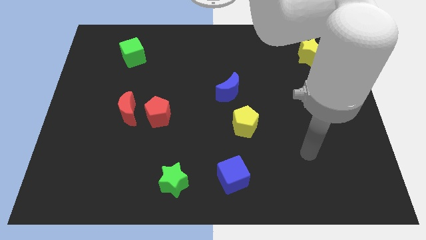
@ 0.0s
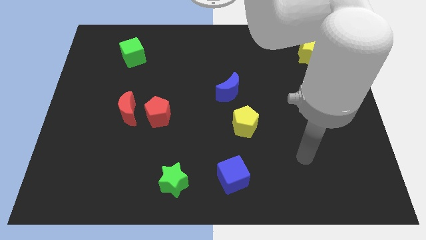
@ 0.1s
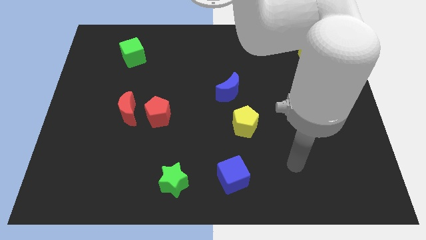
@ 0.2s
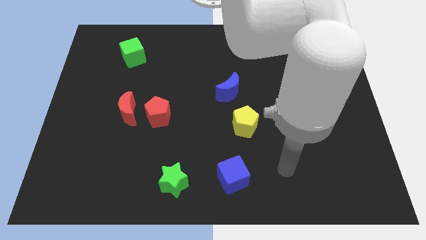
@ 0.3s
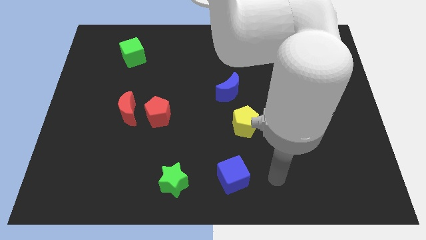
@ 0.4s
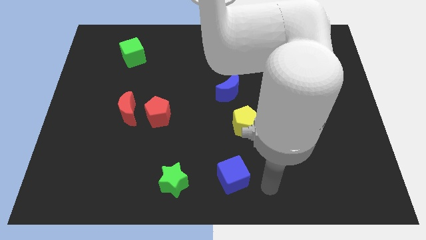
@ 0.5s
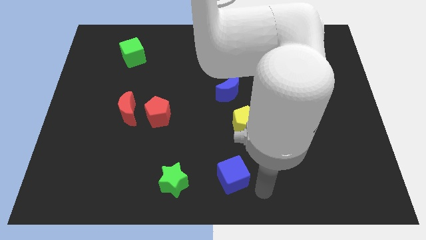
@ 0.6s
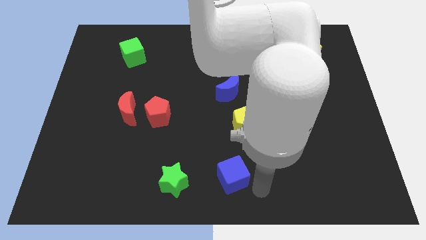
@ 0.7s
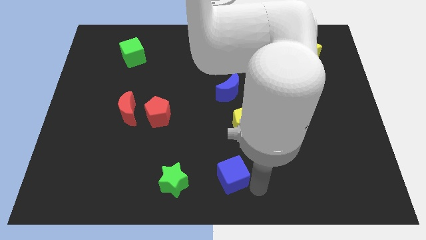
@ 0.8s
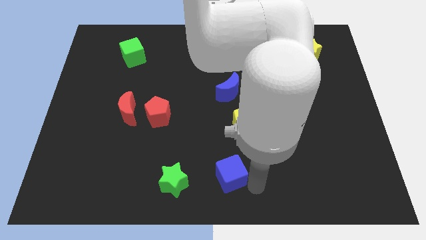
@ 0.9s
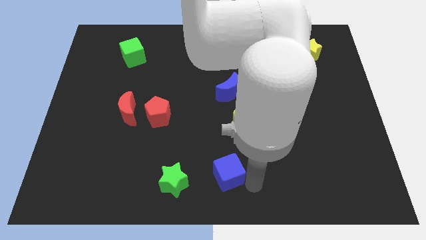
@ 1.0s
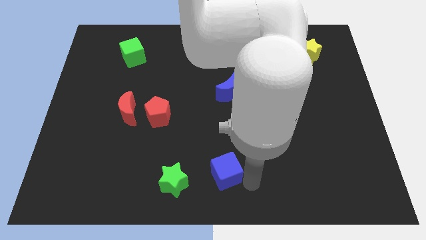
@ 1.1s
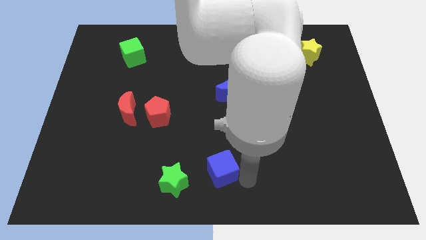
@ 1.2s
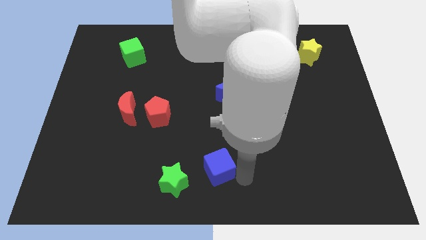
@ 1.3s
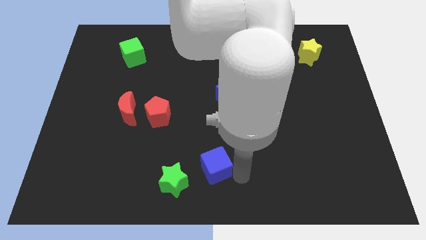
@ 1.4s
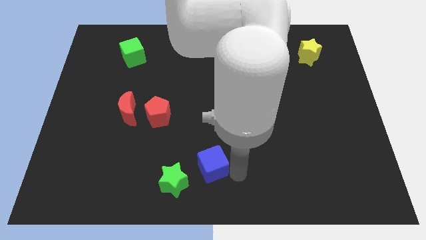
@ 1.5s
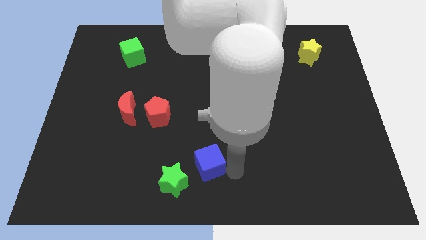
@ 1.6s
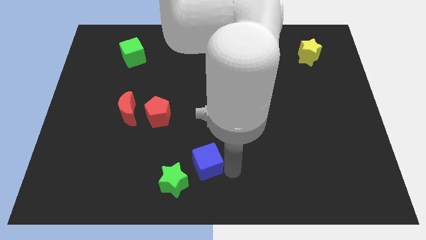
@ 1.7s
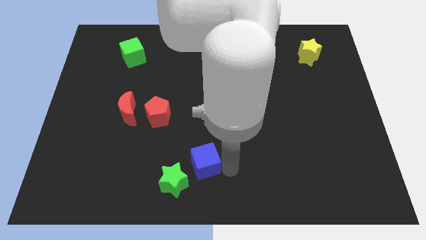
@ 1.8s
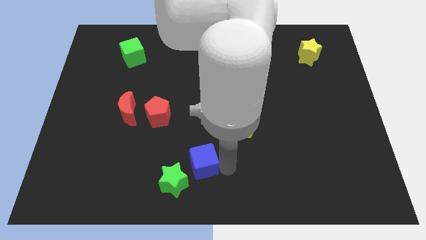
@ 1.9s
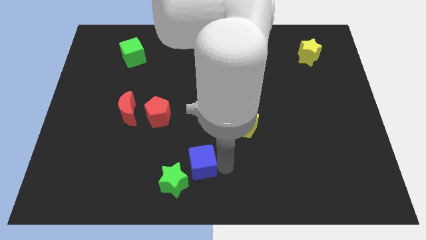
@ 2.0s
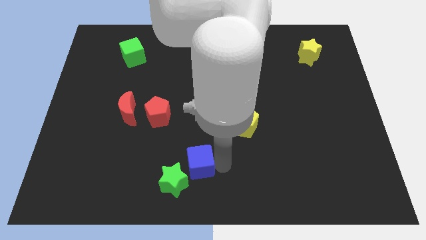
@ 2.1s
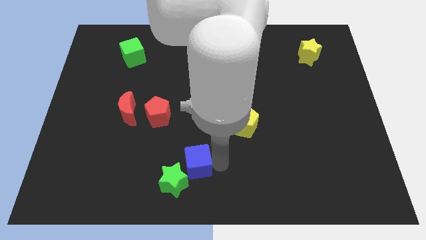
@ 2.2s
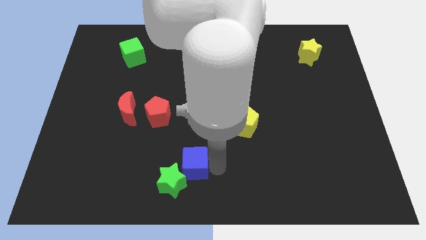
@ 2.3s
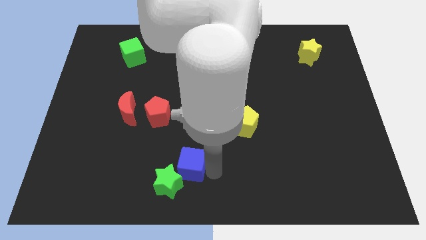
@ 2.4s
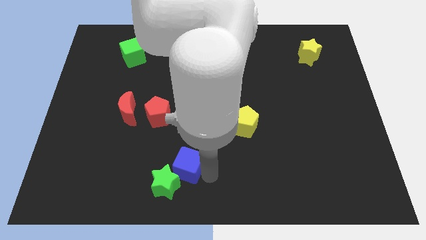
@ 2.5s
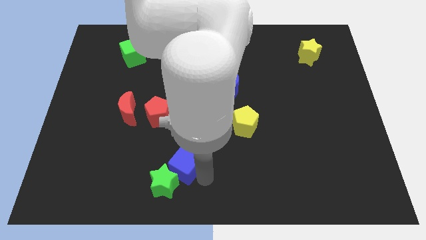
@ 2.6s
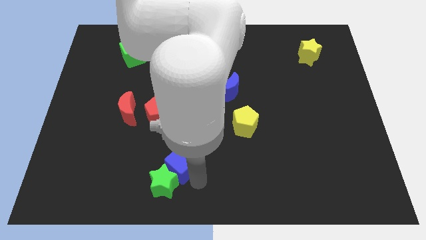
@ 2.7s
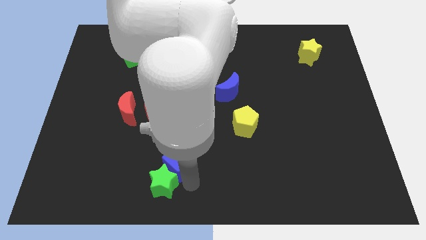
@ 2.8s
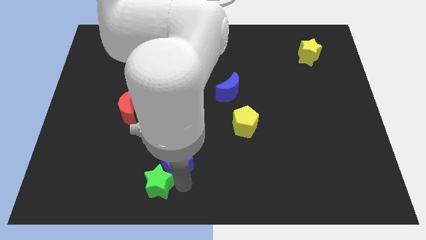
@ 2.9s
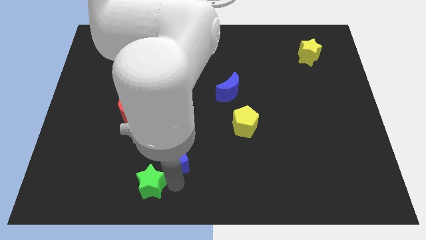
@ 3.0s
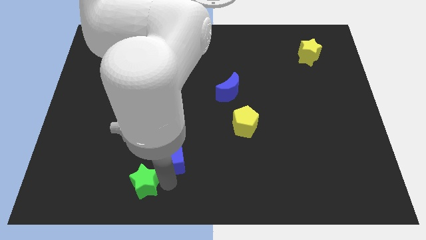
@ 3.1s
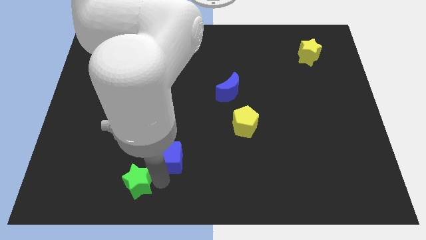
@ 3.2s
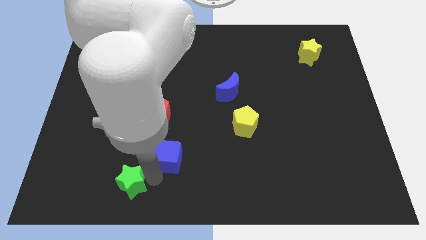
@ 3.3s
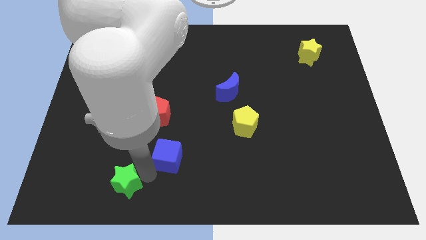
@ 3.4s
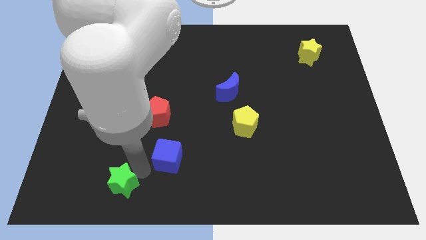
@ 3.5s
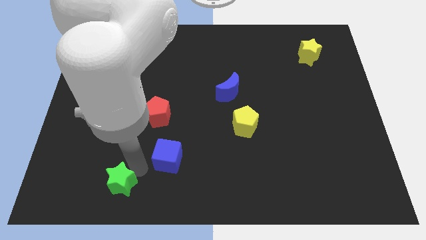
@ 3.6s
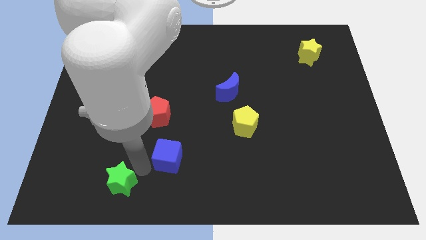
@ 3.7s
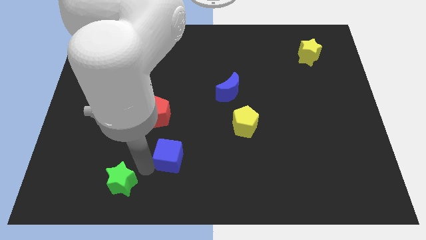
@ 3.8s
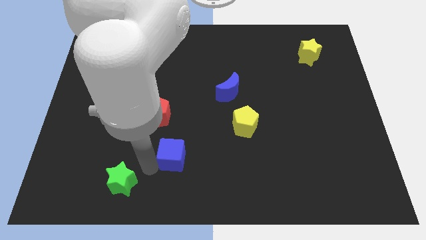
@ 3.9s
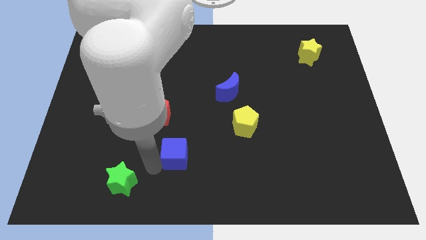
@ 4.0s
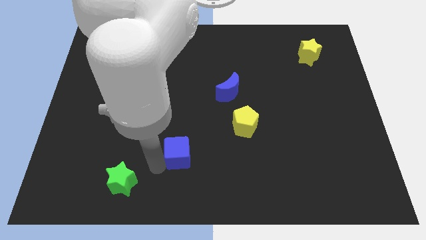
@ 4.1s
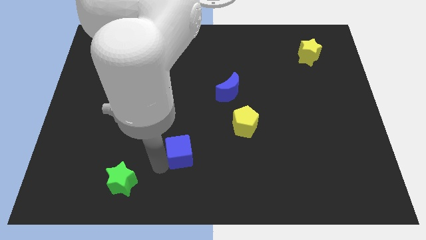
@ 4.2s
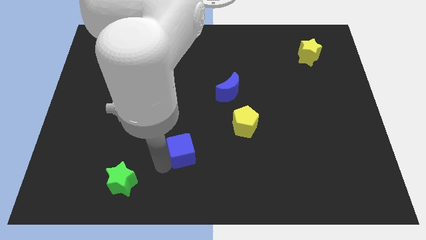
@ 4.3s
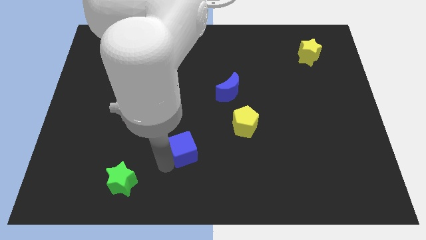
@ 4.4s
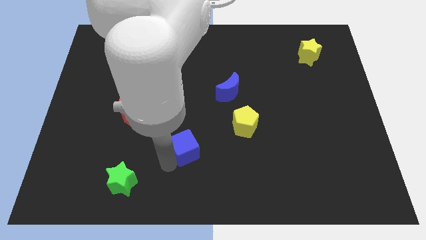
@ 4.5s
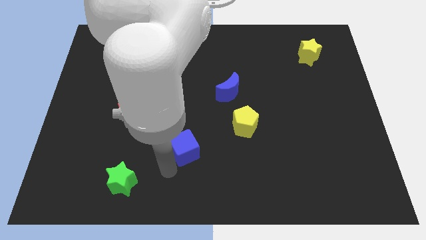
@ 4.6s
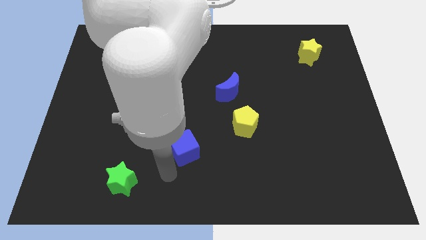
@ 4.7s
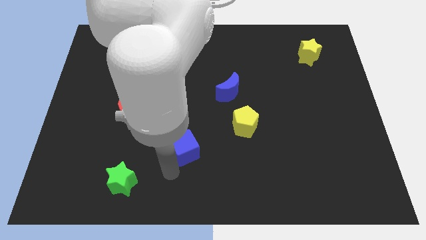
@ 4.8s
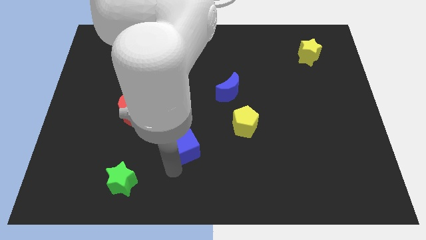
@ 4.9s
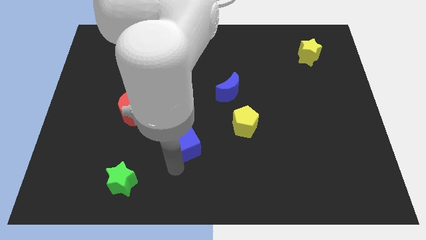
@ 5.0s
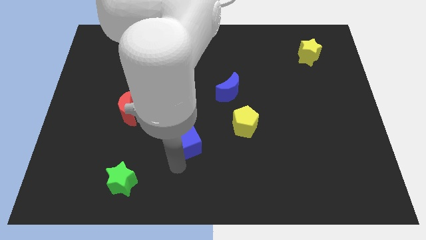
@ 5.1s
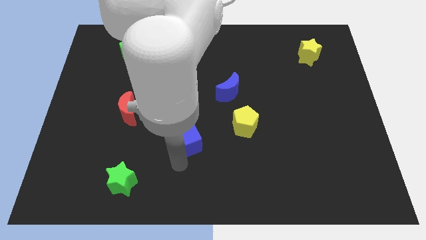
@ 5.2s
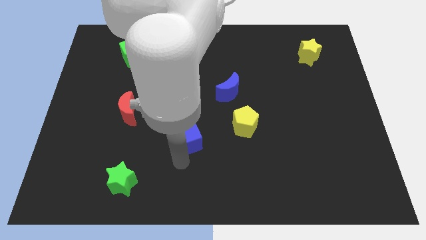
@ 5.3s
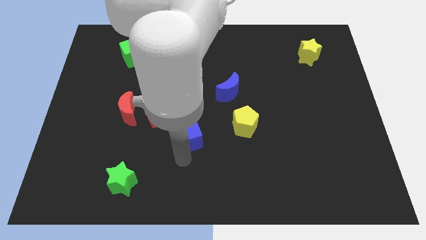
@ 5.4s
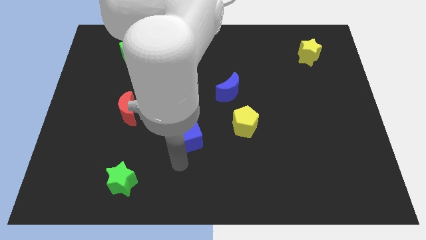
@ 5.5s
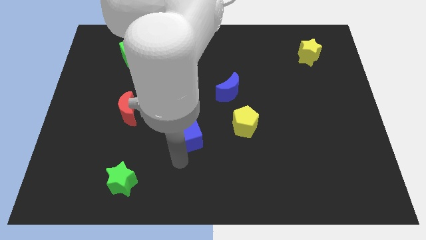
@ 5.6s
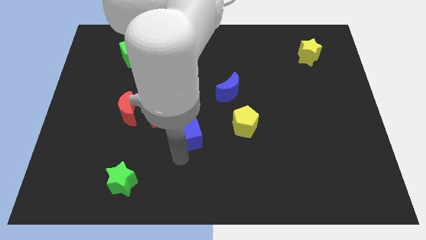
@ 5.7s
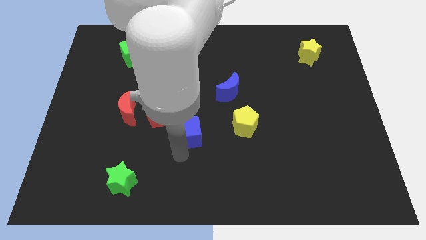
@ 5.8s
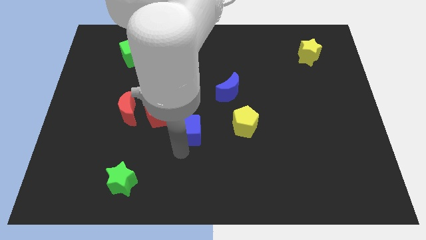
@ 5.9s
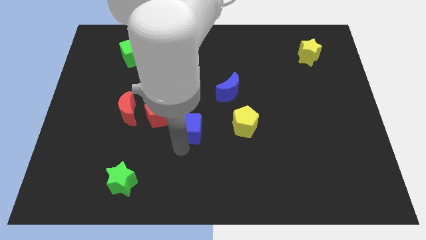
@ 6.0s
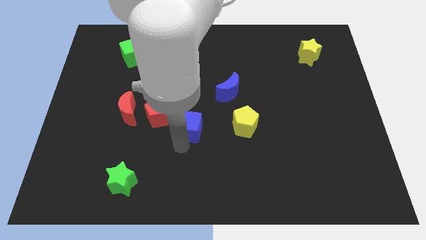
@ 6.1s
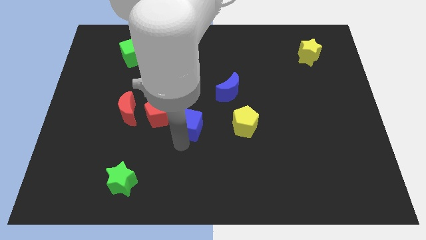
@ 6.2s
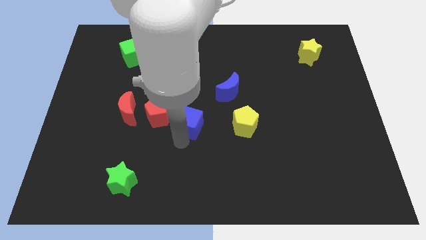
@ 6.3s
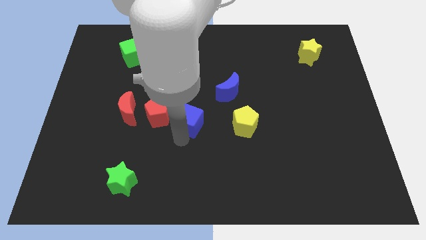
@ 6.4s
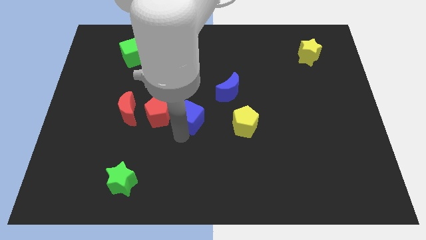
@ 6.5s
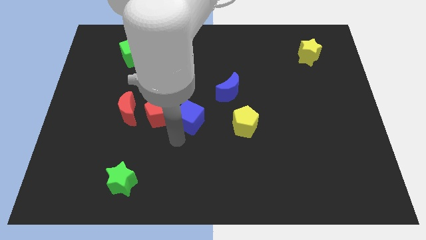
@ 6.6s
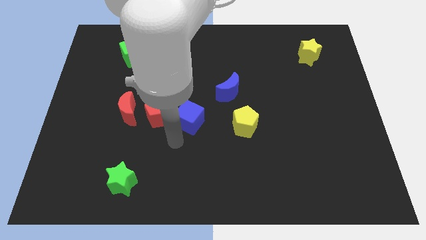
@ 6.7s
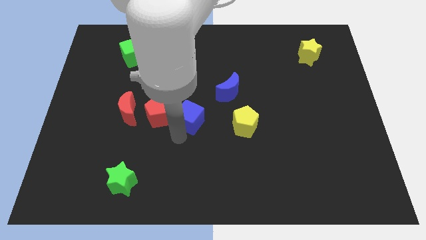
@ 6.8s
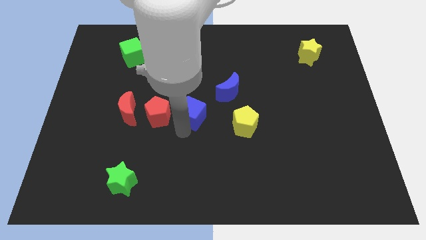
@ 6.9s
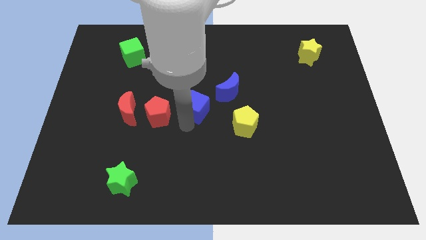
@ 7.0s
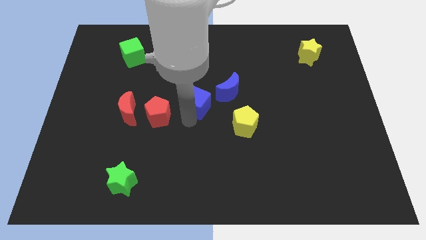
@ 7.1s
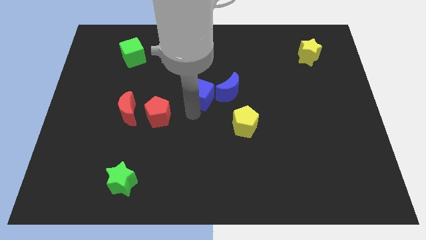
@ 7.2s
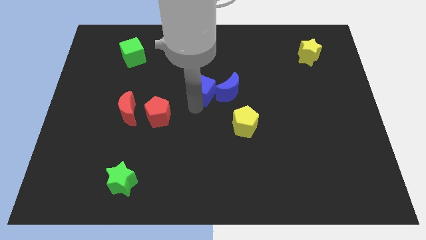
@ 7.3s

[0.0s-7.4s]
push the blue cube upwards
